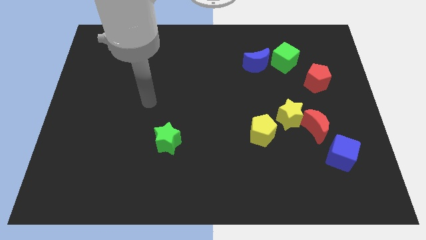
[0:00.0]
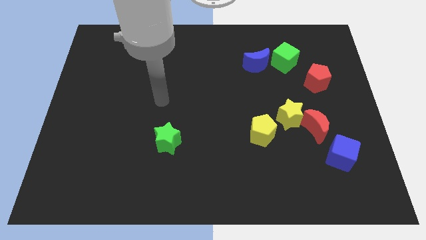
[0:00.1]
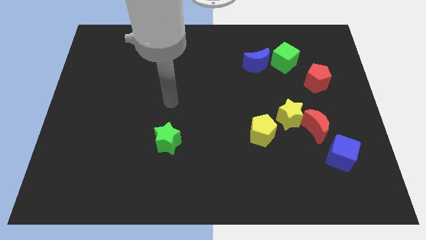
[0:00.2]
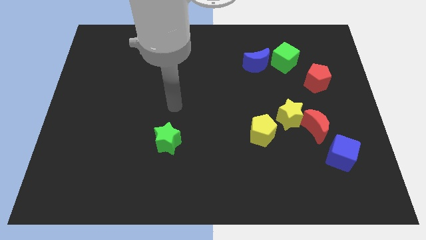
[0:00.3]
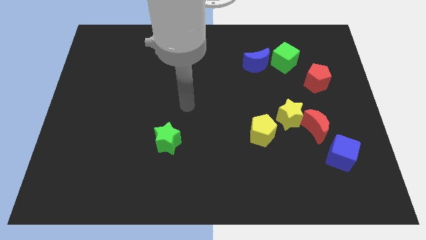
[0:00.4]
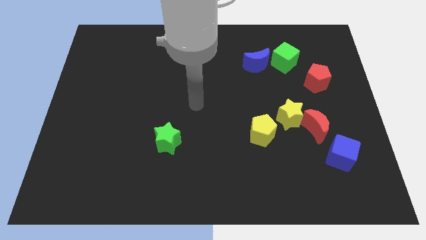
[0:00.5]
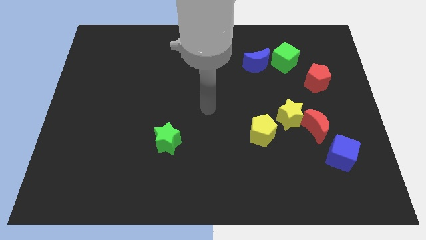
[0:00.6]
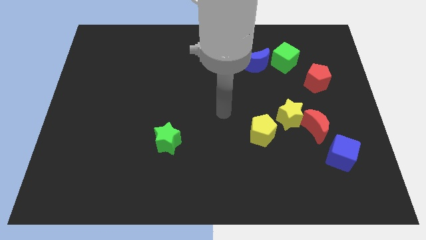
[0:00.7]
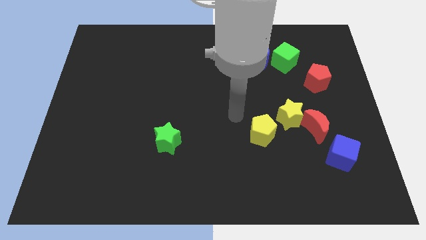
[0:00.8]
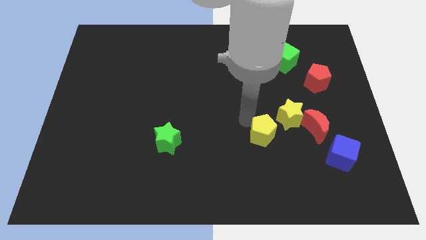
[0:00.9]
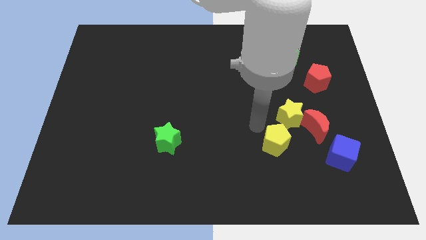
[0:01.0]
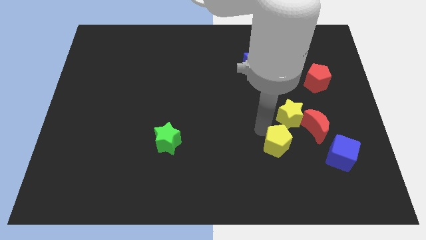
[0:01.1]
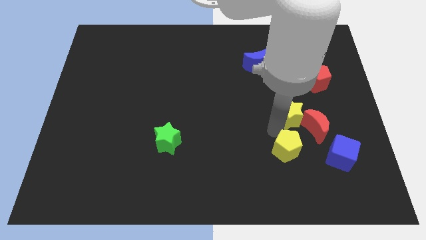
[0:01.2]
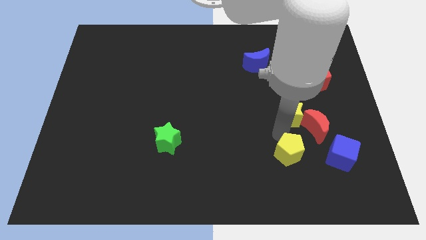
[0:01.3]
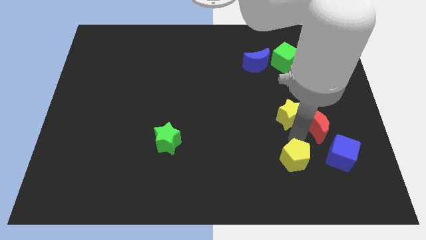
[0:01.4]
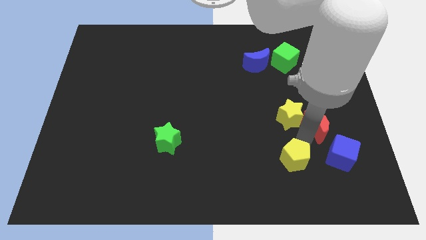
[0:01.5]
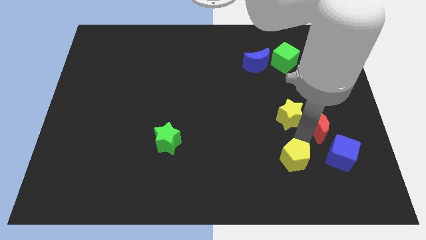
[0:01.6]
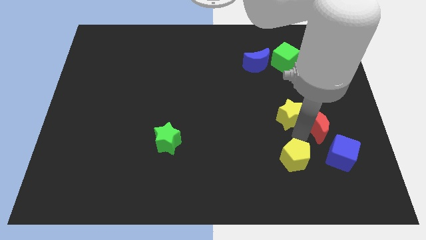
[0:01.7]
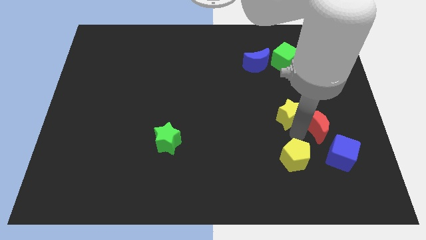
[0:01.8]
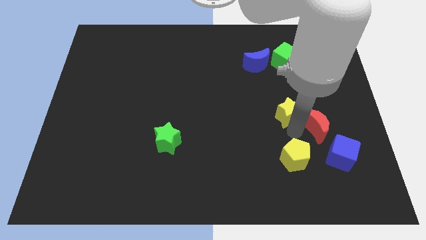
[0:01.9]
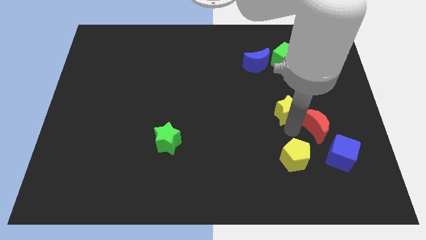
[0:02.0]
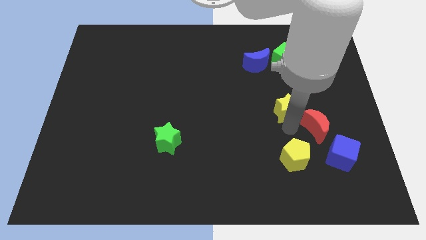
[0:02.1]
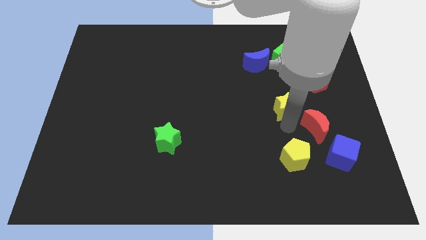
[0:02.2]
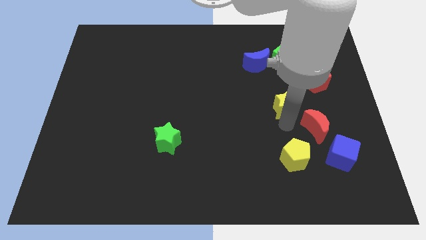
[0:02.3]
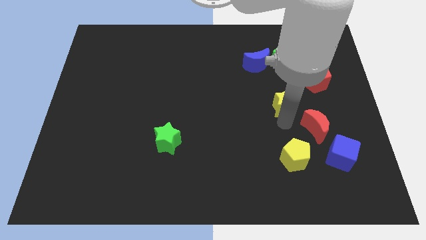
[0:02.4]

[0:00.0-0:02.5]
separate the yellow star from the red moon and yellow pentagon

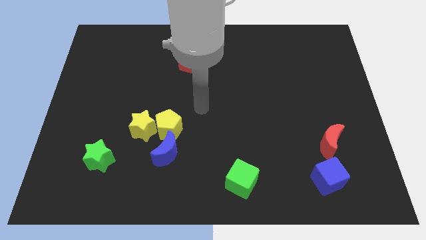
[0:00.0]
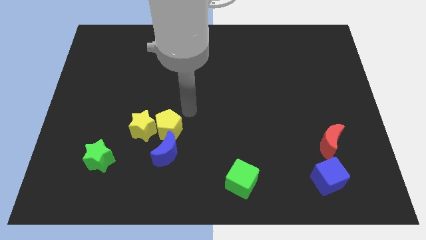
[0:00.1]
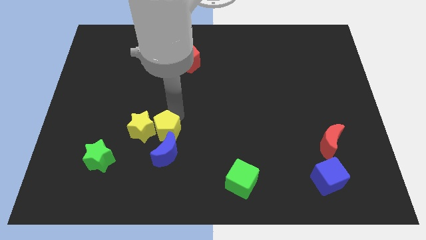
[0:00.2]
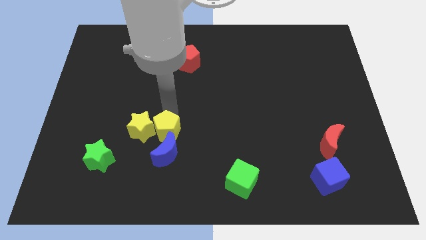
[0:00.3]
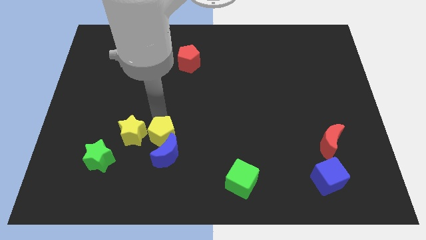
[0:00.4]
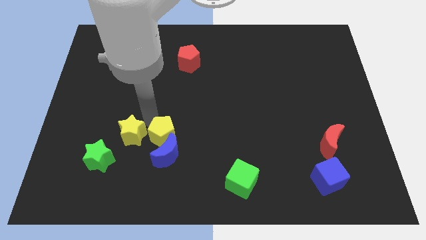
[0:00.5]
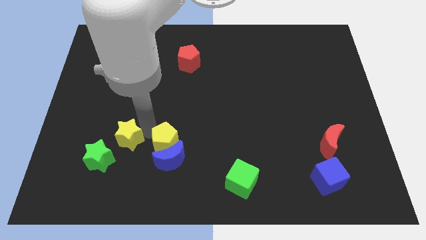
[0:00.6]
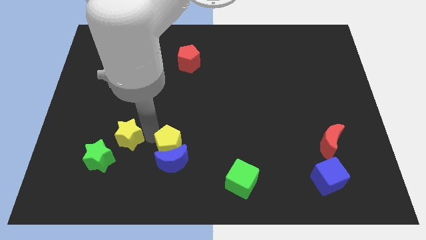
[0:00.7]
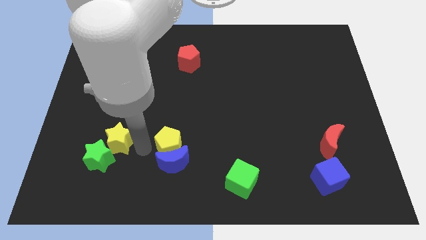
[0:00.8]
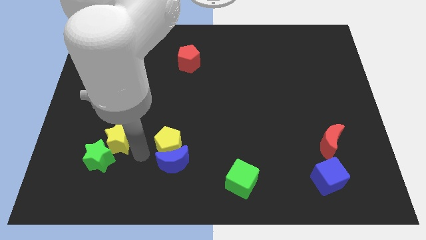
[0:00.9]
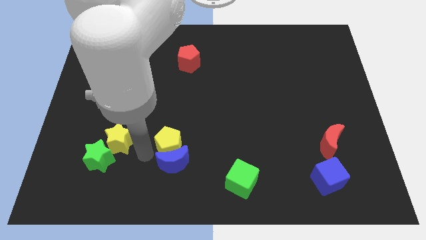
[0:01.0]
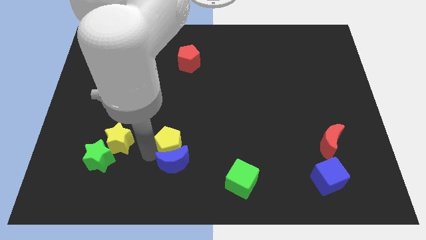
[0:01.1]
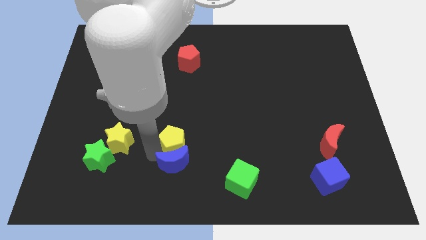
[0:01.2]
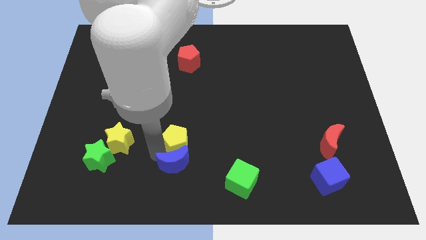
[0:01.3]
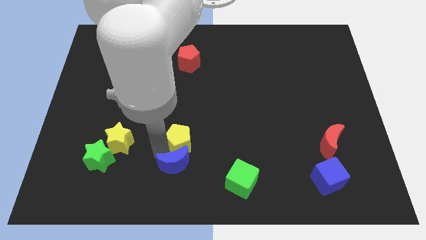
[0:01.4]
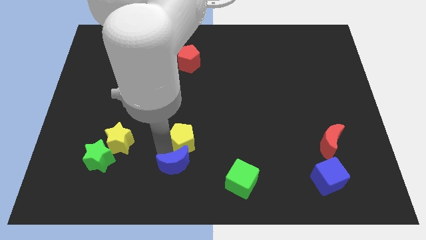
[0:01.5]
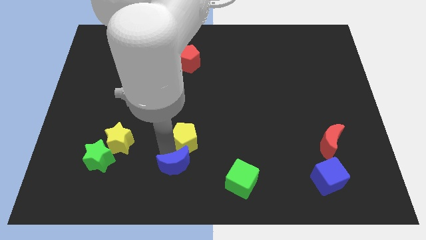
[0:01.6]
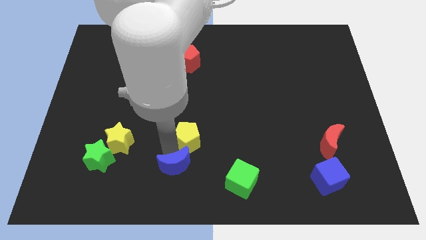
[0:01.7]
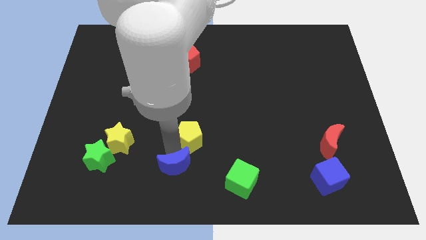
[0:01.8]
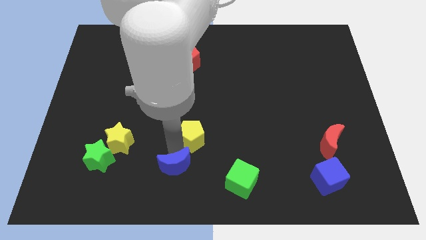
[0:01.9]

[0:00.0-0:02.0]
move the yellow pentagon away from the yellow star and blue moon

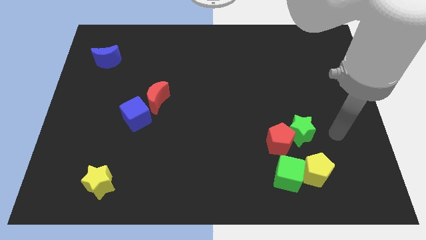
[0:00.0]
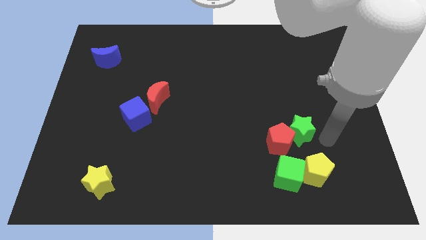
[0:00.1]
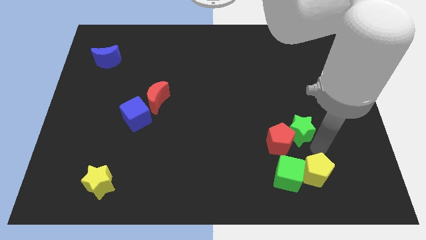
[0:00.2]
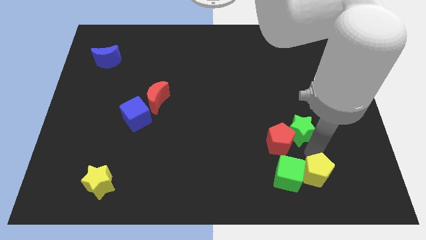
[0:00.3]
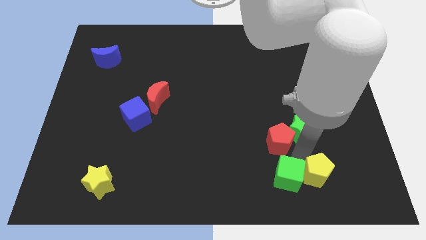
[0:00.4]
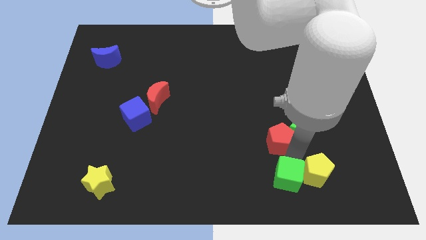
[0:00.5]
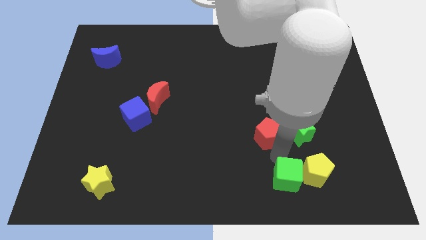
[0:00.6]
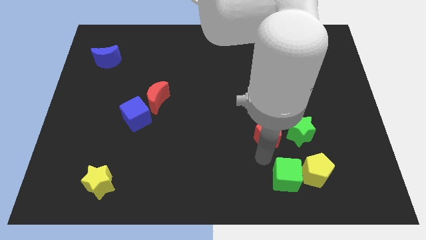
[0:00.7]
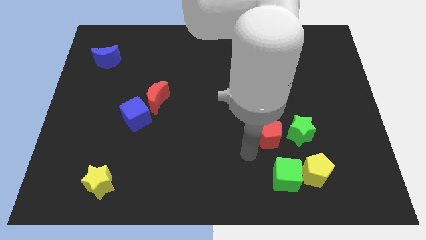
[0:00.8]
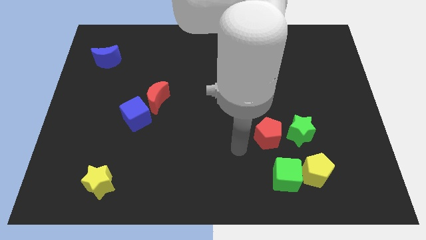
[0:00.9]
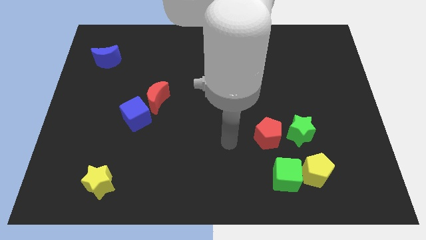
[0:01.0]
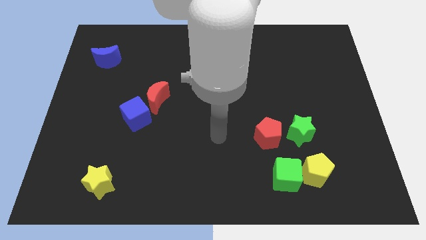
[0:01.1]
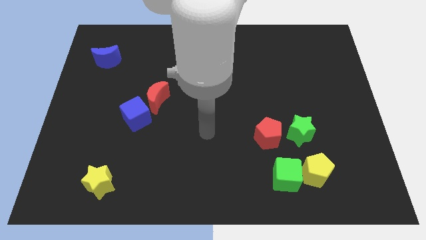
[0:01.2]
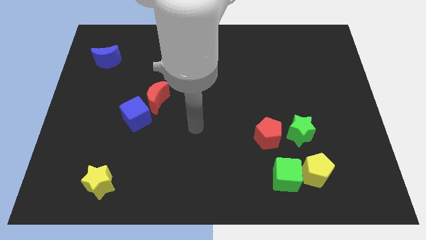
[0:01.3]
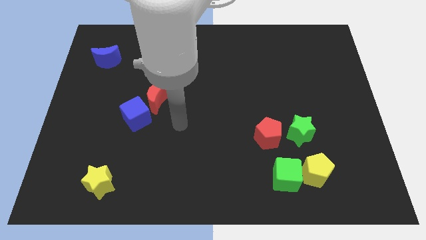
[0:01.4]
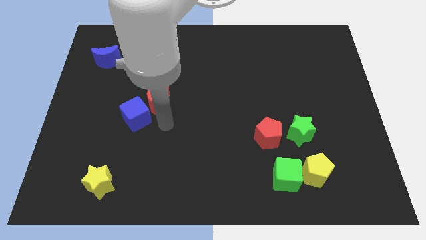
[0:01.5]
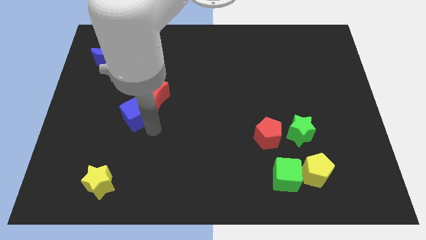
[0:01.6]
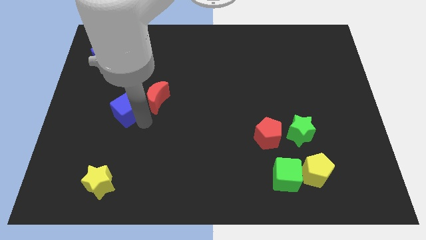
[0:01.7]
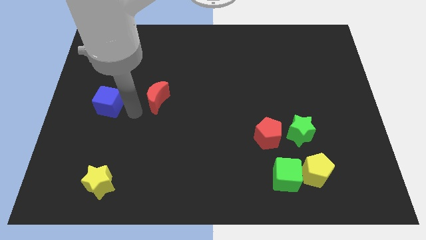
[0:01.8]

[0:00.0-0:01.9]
pull the red moon apart from the blue cube

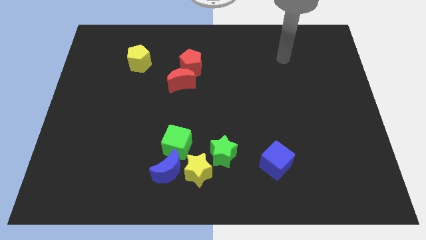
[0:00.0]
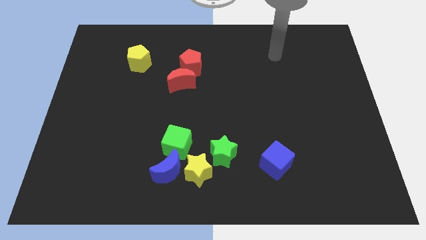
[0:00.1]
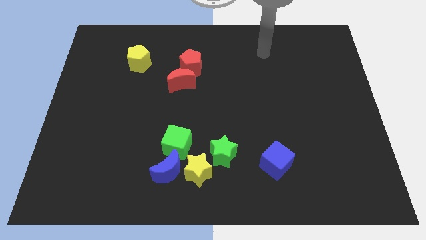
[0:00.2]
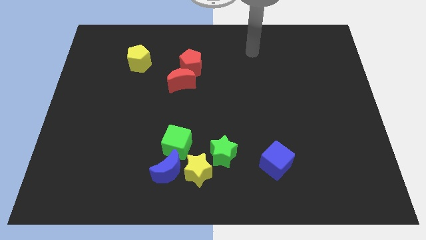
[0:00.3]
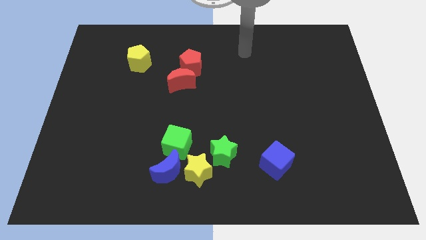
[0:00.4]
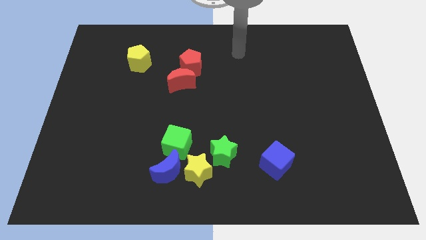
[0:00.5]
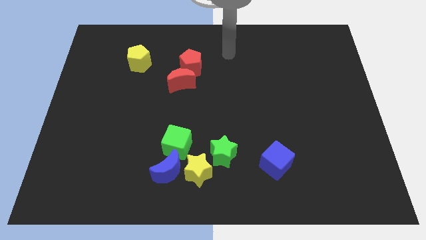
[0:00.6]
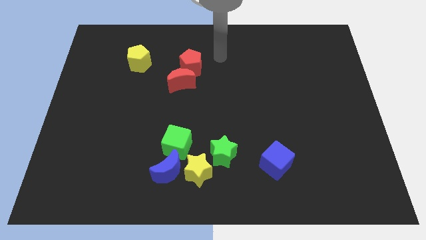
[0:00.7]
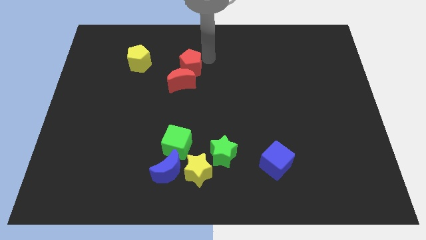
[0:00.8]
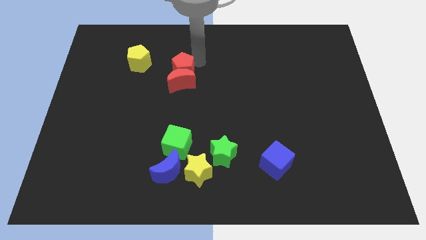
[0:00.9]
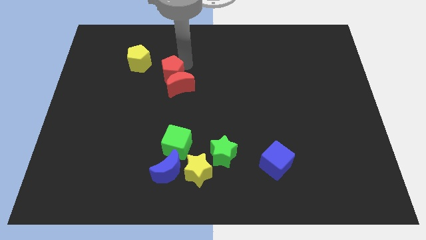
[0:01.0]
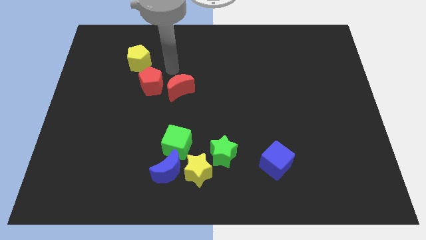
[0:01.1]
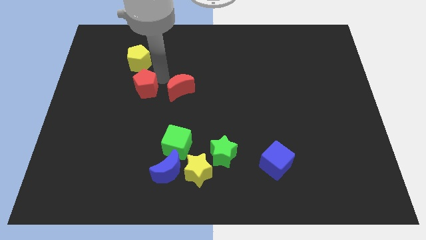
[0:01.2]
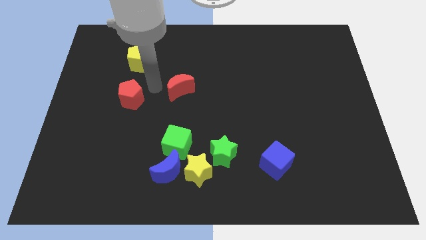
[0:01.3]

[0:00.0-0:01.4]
move the red moon away from the red pentagon

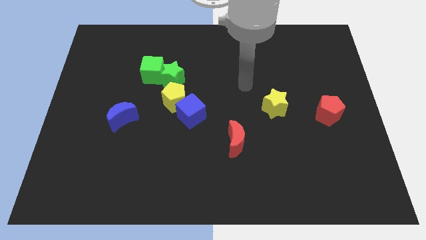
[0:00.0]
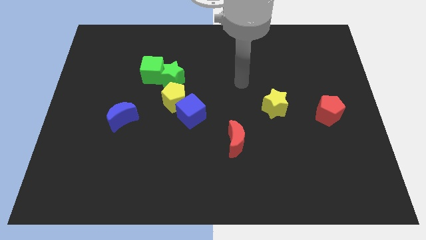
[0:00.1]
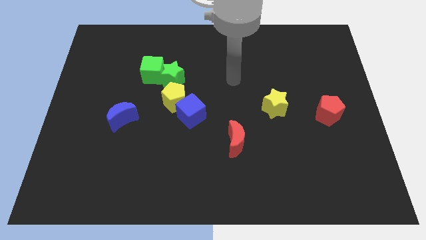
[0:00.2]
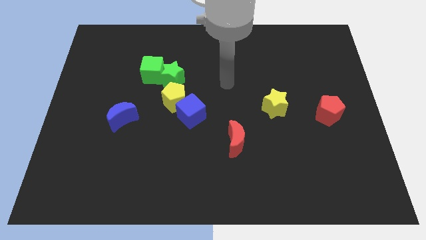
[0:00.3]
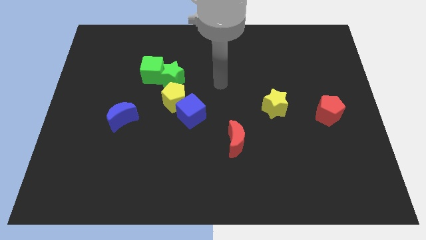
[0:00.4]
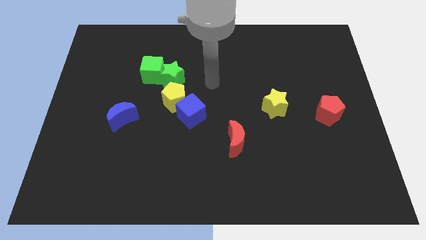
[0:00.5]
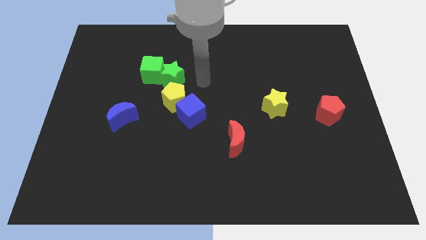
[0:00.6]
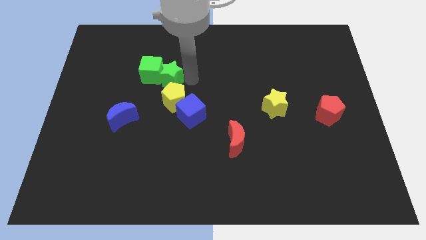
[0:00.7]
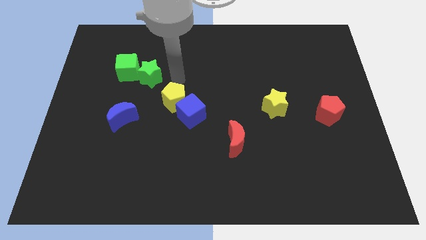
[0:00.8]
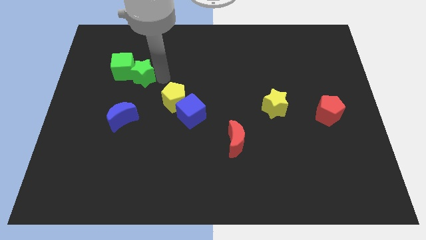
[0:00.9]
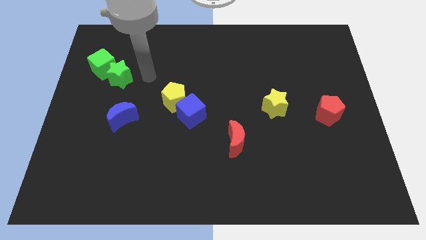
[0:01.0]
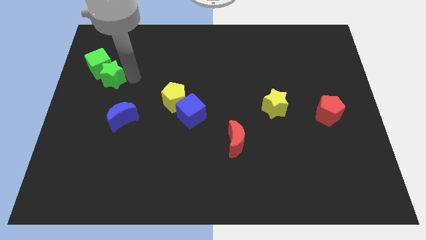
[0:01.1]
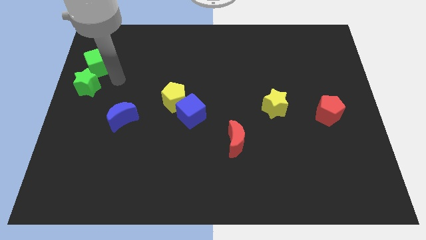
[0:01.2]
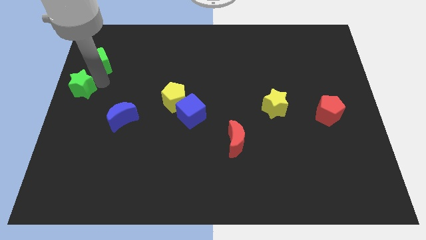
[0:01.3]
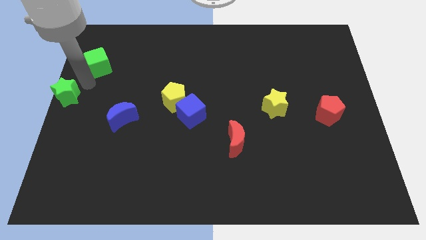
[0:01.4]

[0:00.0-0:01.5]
separate the green cube from the green star
